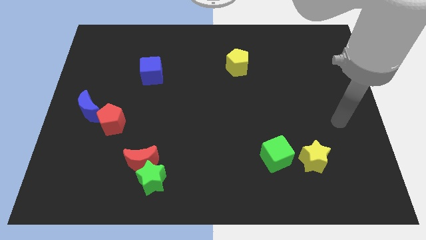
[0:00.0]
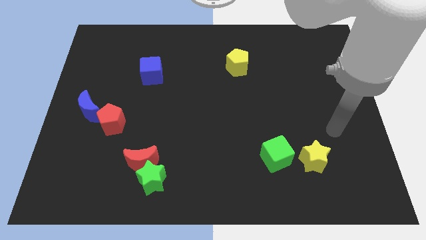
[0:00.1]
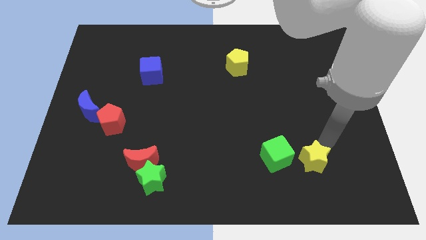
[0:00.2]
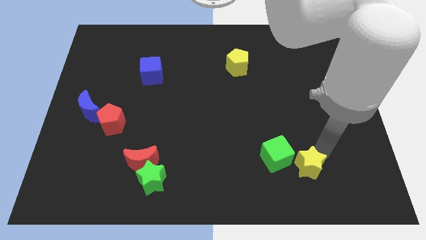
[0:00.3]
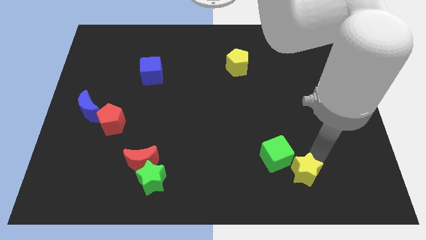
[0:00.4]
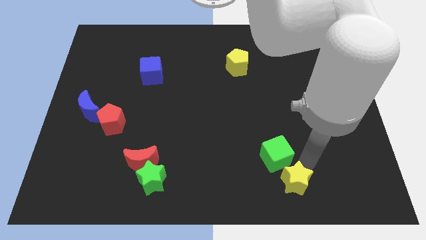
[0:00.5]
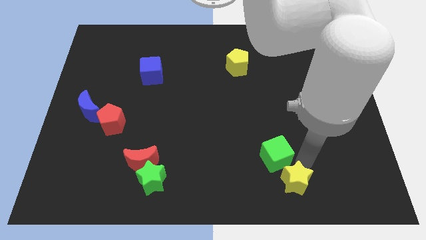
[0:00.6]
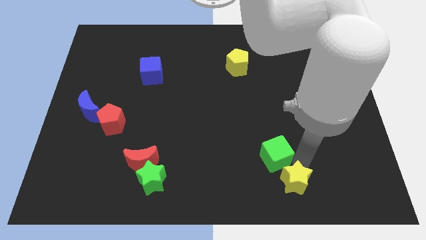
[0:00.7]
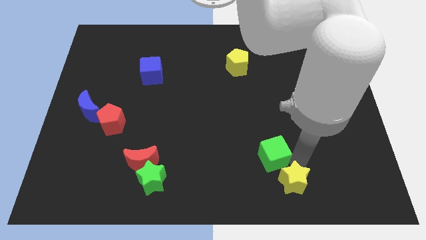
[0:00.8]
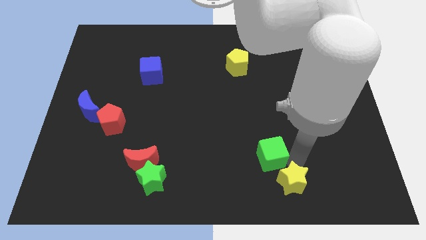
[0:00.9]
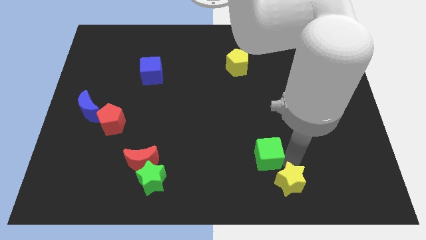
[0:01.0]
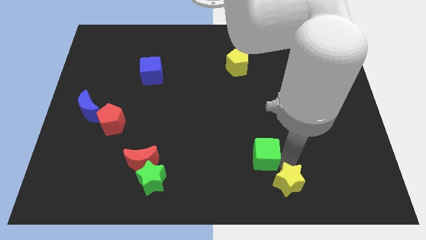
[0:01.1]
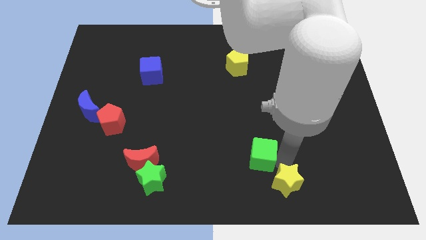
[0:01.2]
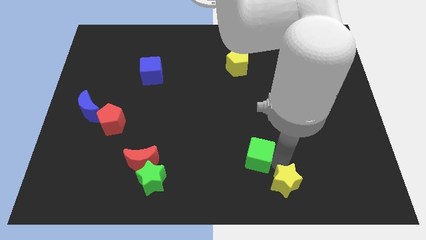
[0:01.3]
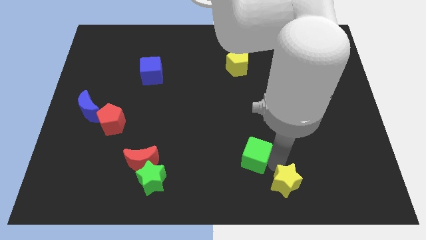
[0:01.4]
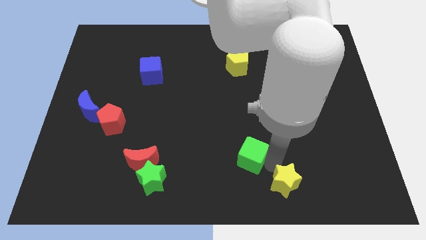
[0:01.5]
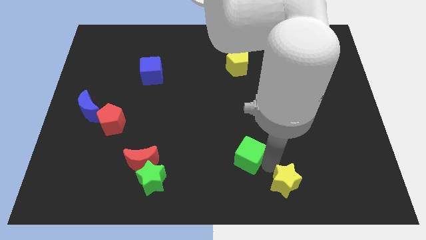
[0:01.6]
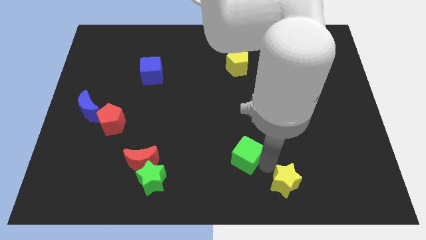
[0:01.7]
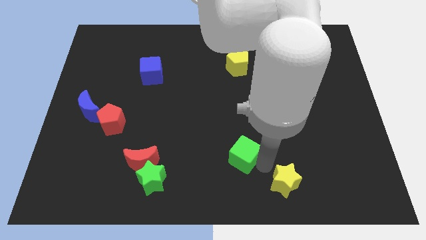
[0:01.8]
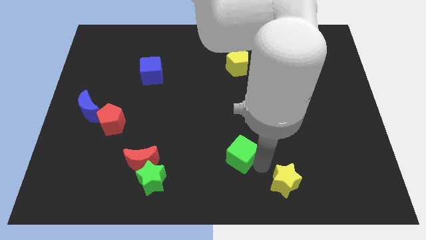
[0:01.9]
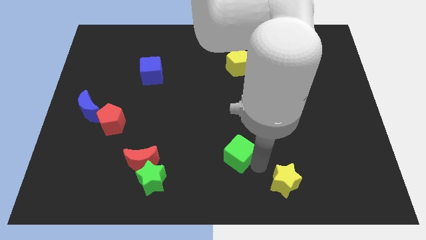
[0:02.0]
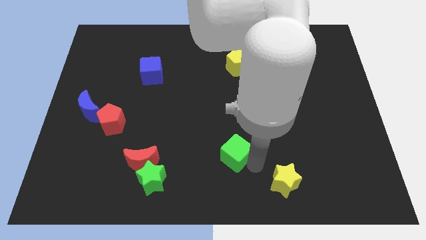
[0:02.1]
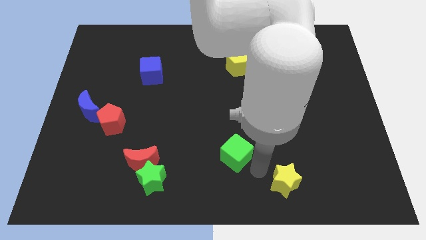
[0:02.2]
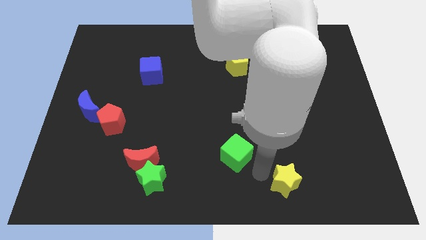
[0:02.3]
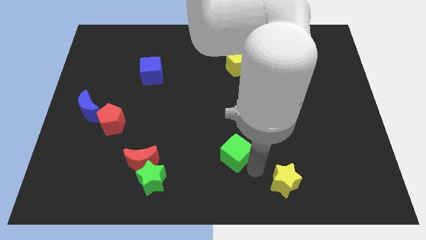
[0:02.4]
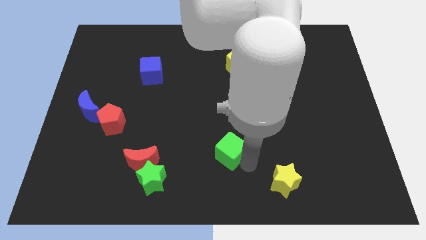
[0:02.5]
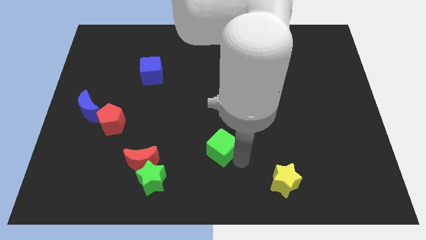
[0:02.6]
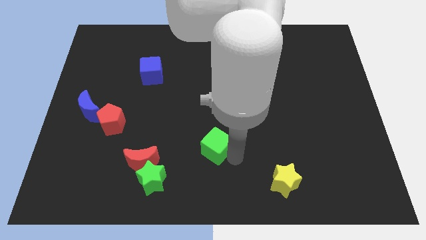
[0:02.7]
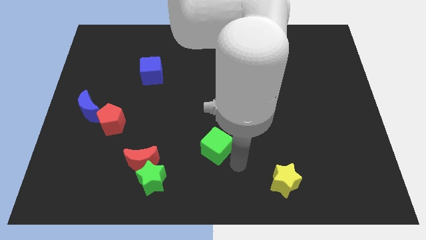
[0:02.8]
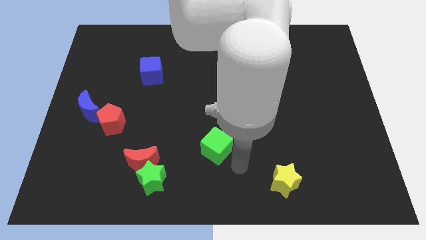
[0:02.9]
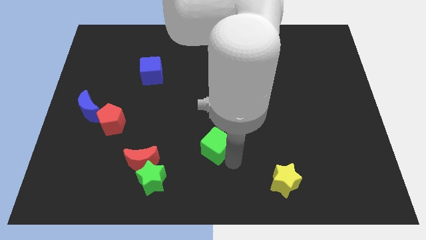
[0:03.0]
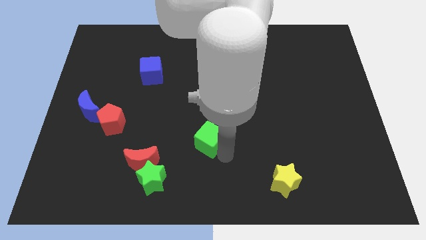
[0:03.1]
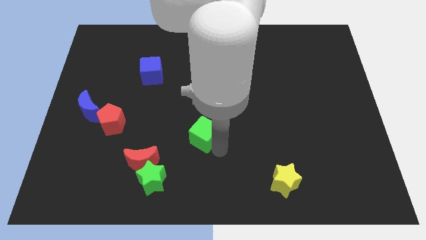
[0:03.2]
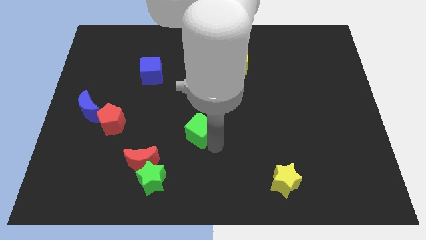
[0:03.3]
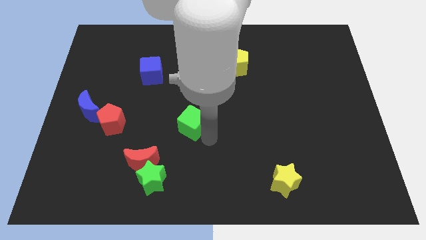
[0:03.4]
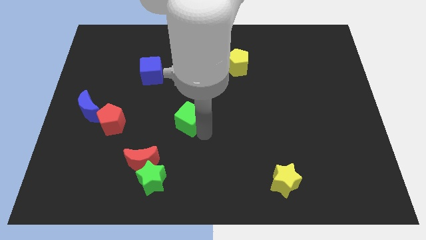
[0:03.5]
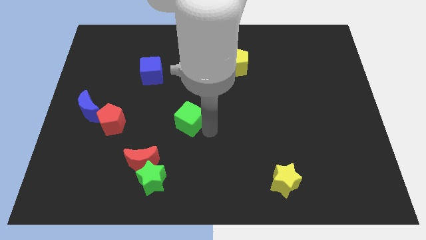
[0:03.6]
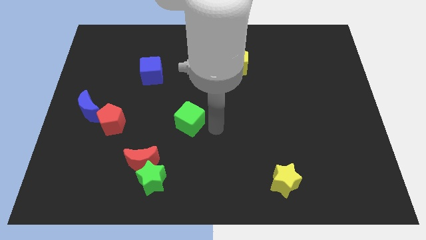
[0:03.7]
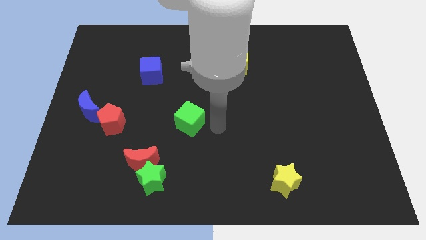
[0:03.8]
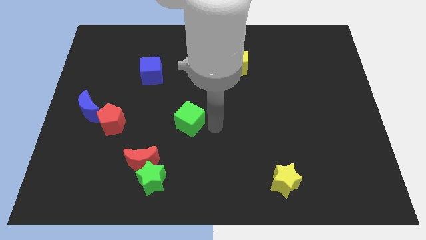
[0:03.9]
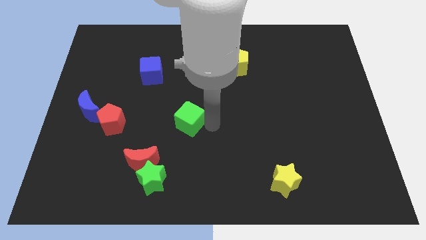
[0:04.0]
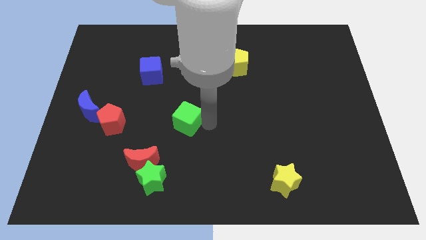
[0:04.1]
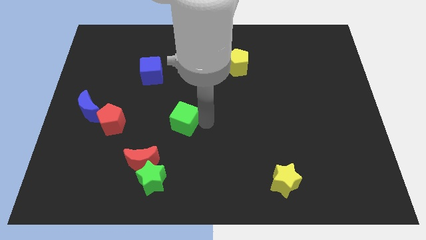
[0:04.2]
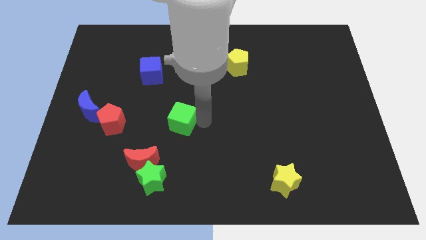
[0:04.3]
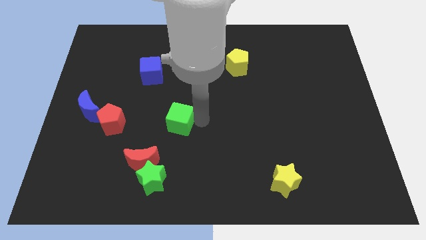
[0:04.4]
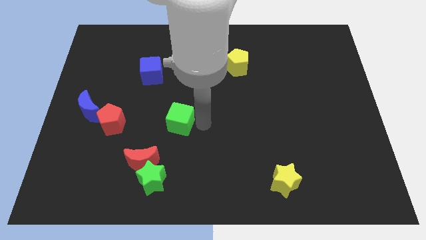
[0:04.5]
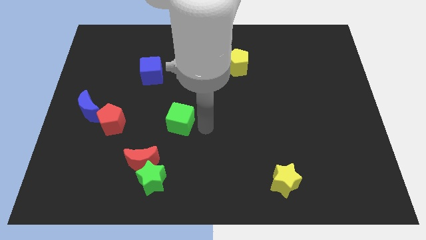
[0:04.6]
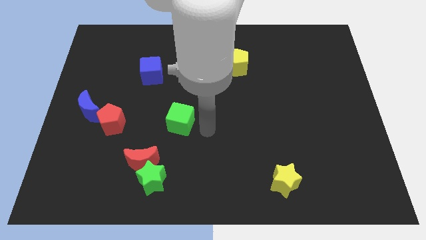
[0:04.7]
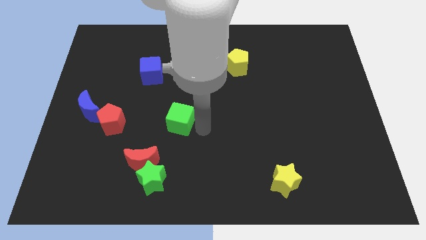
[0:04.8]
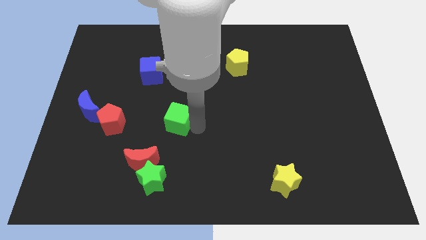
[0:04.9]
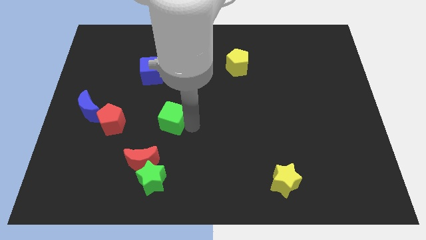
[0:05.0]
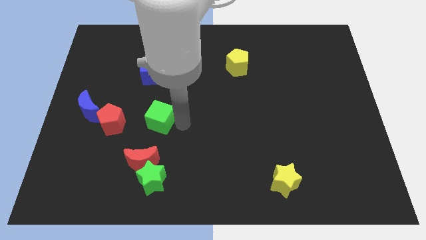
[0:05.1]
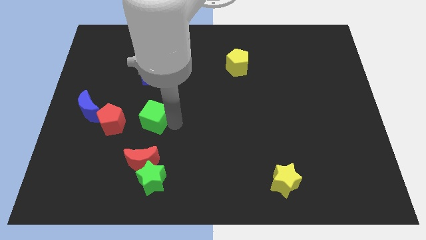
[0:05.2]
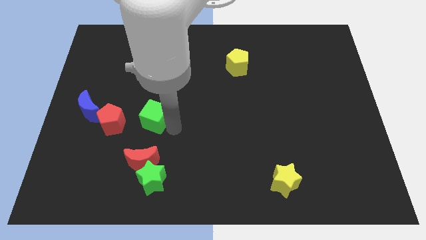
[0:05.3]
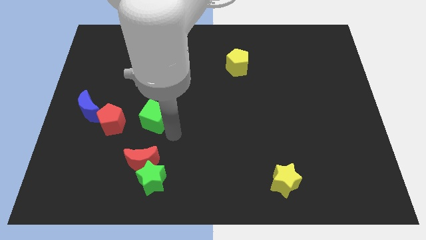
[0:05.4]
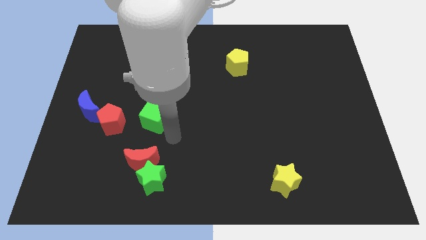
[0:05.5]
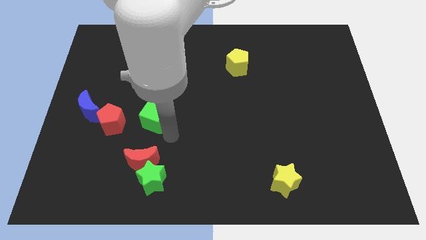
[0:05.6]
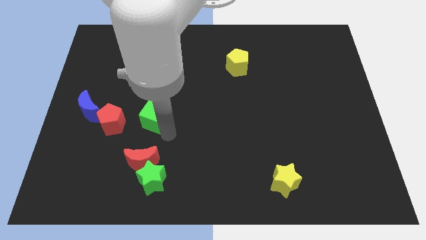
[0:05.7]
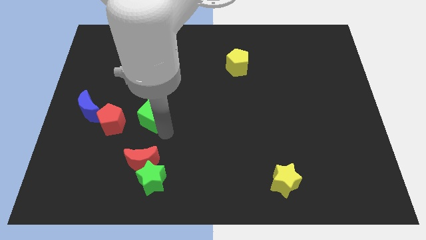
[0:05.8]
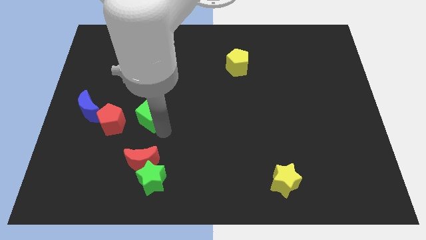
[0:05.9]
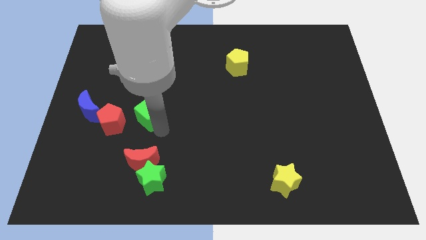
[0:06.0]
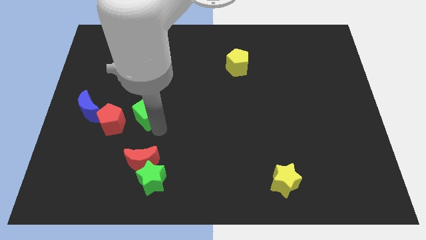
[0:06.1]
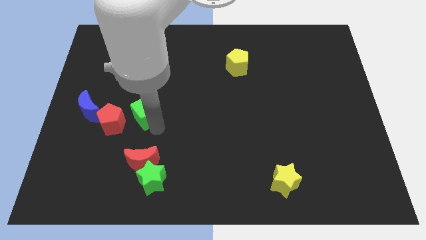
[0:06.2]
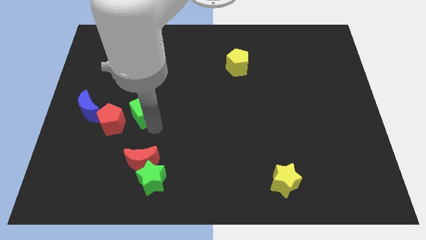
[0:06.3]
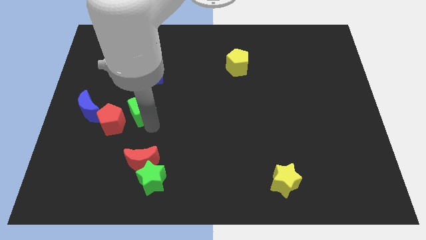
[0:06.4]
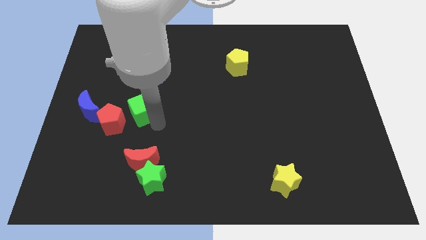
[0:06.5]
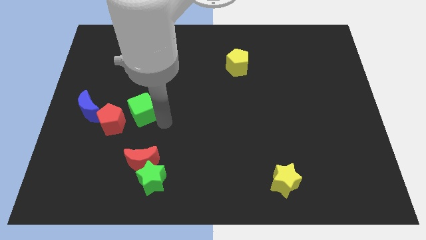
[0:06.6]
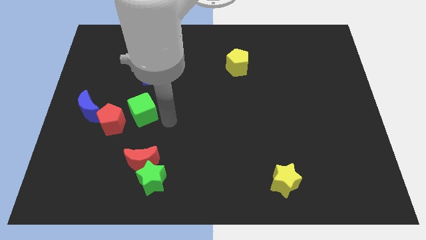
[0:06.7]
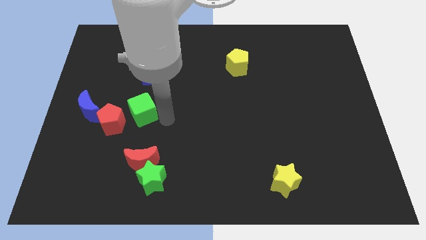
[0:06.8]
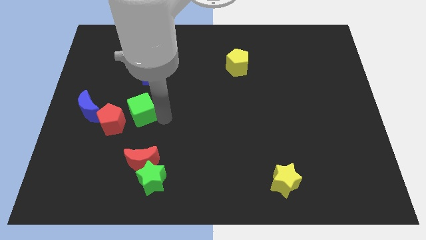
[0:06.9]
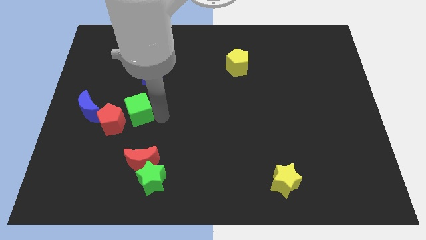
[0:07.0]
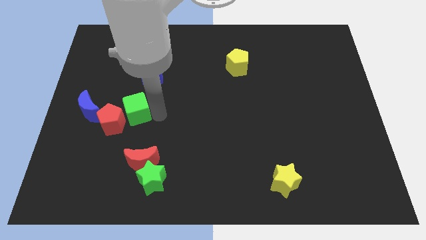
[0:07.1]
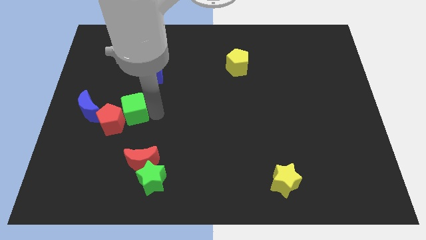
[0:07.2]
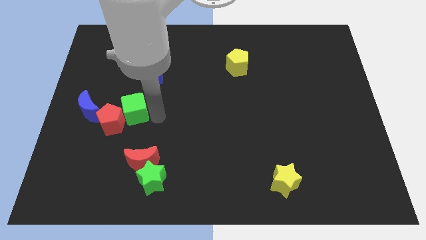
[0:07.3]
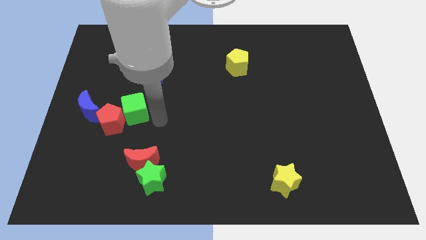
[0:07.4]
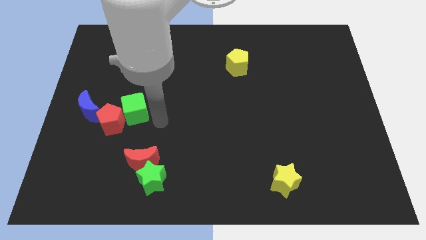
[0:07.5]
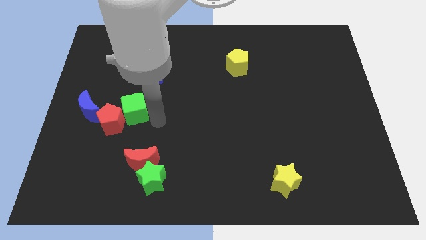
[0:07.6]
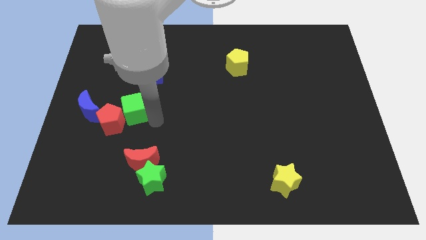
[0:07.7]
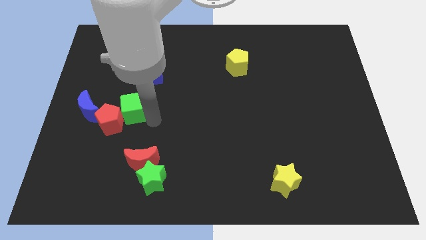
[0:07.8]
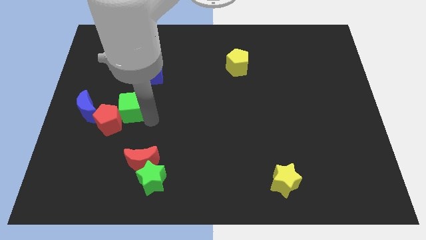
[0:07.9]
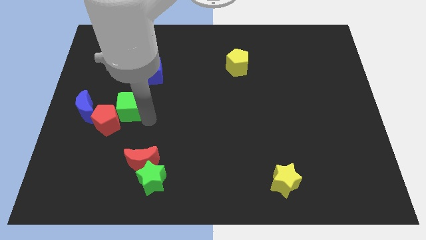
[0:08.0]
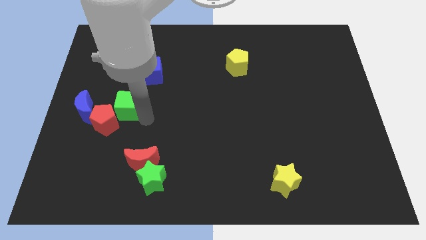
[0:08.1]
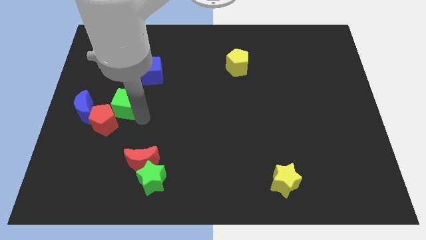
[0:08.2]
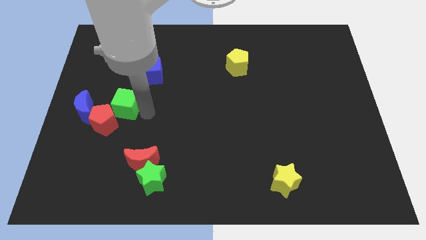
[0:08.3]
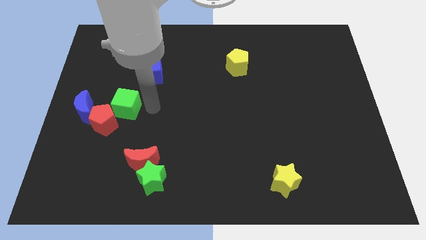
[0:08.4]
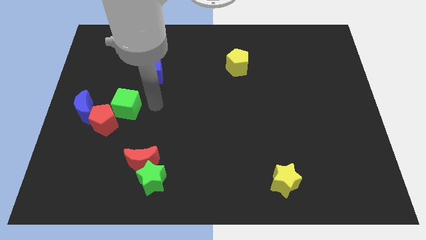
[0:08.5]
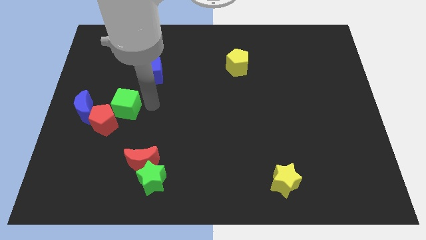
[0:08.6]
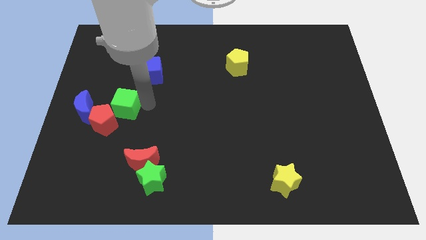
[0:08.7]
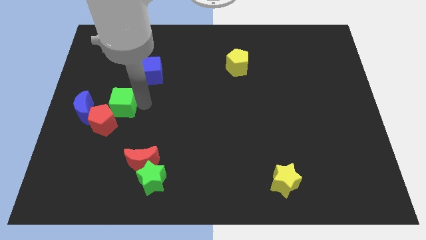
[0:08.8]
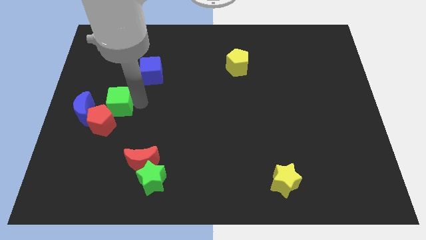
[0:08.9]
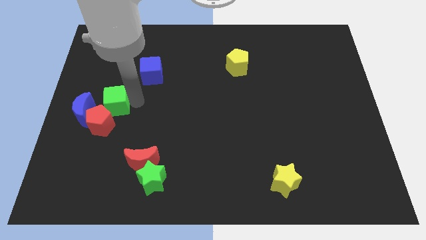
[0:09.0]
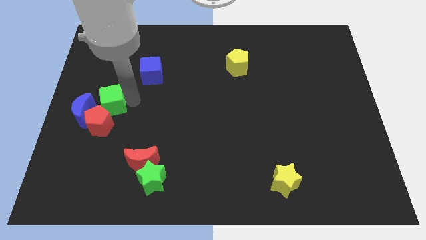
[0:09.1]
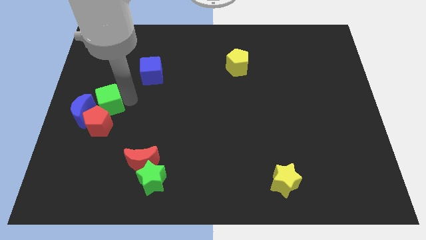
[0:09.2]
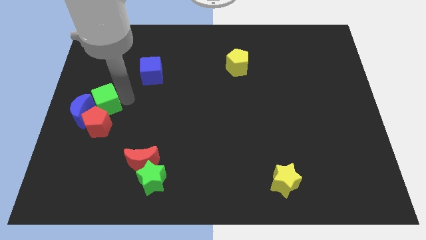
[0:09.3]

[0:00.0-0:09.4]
put the green cube towards the blue moon
